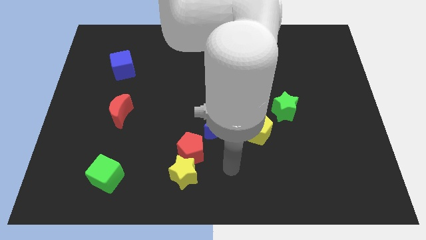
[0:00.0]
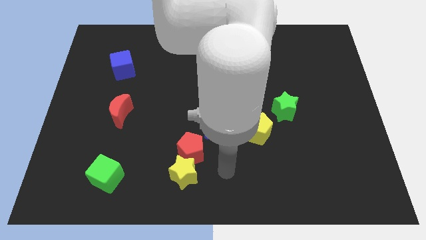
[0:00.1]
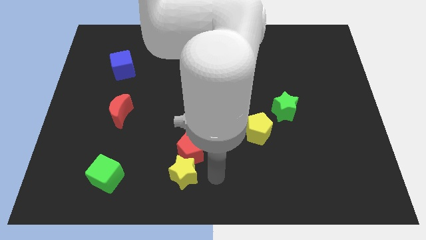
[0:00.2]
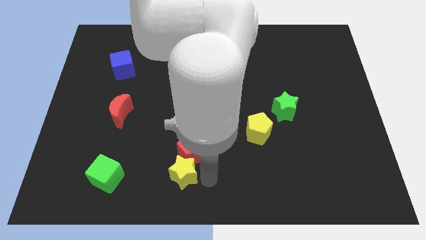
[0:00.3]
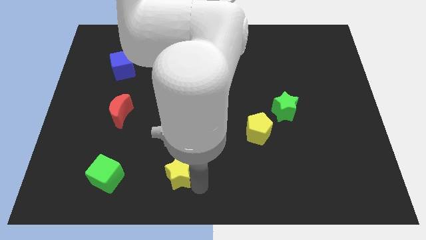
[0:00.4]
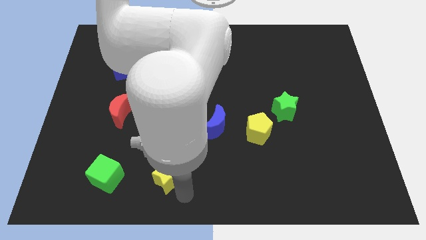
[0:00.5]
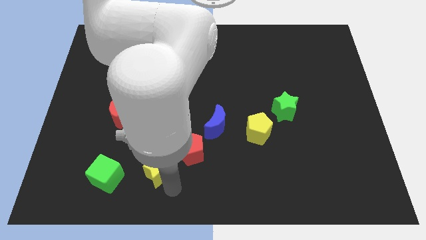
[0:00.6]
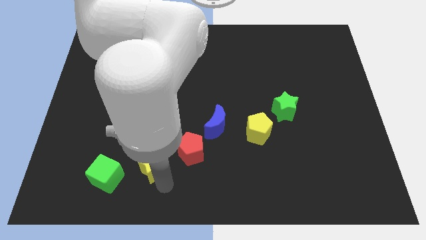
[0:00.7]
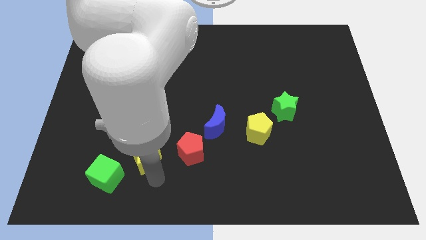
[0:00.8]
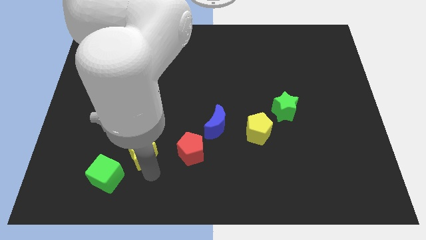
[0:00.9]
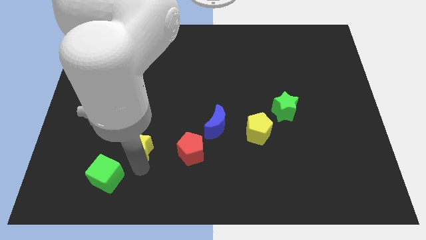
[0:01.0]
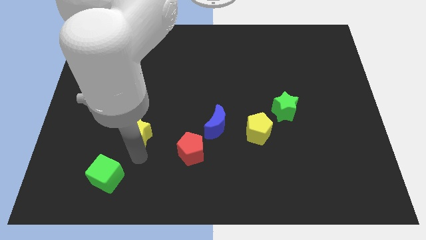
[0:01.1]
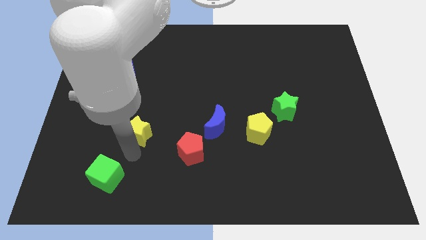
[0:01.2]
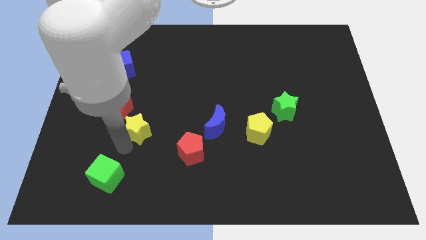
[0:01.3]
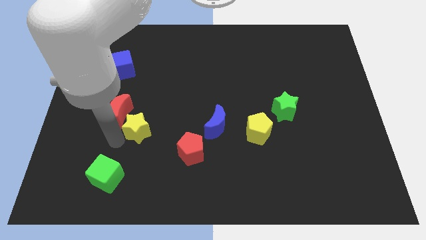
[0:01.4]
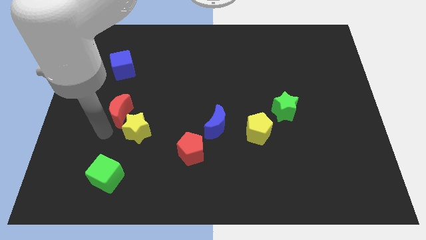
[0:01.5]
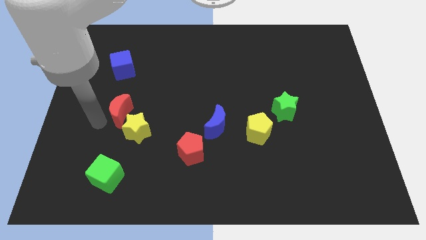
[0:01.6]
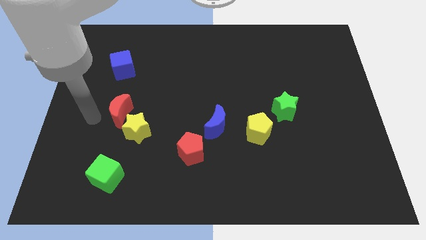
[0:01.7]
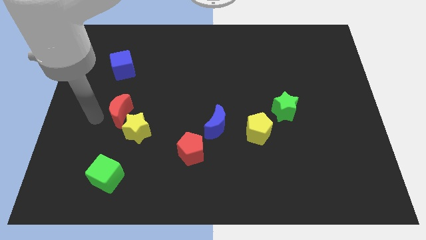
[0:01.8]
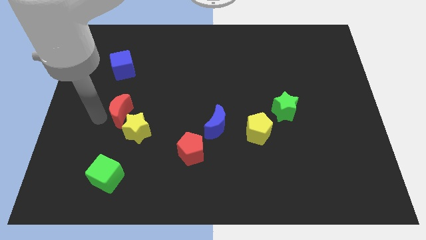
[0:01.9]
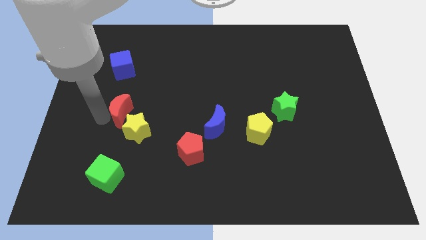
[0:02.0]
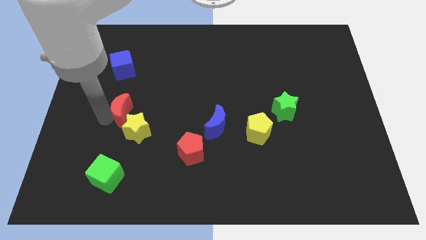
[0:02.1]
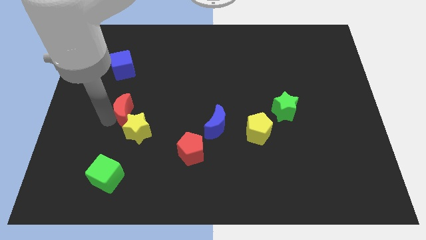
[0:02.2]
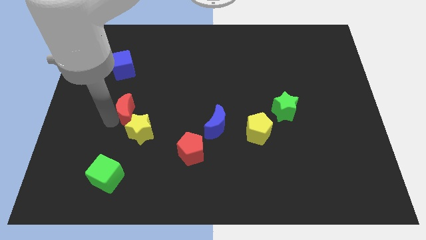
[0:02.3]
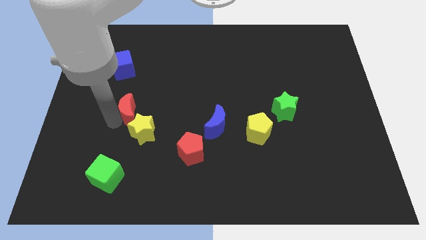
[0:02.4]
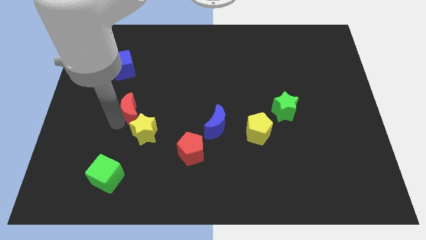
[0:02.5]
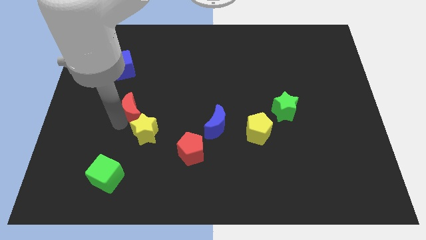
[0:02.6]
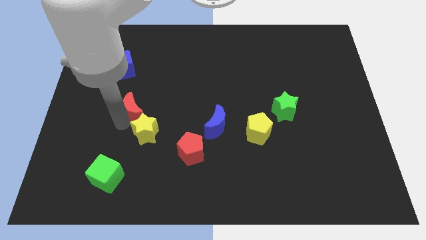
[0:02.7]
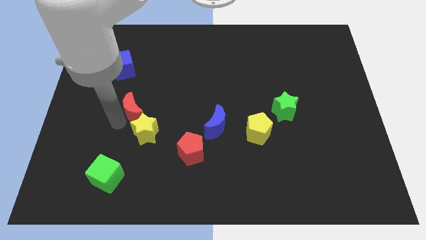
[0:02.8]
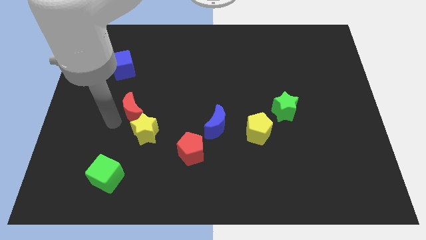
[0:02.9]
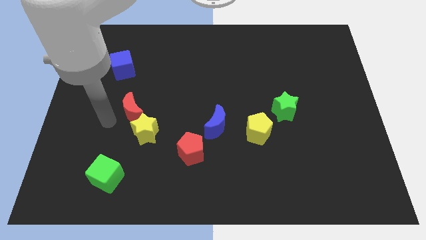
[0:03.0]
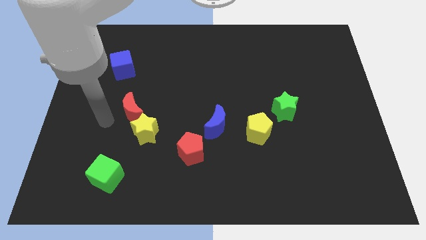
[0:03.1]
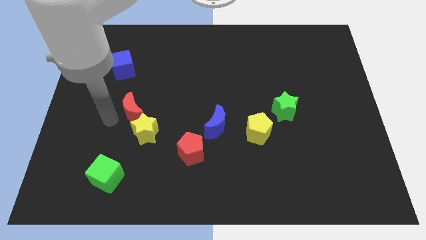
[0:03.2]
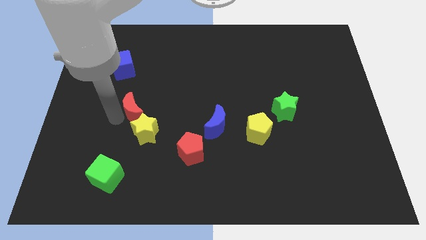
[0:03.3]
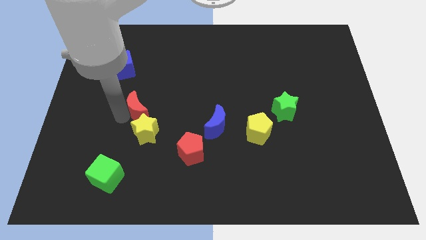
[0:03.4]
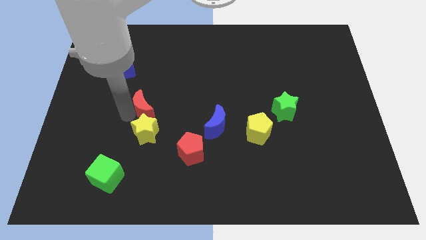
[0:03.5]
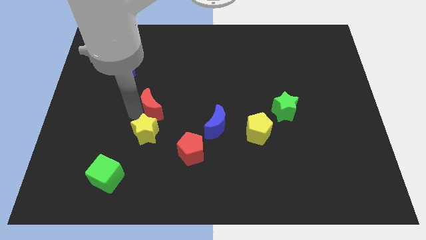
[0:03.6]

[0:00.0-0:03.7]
push the red moon a little right

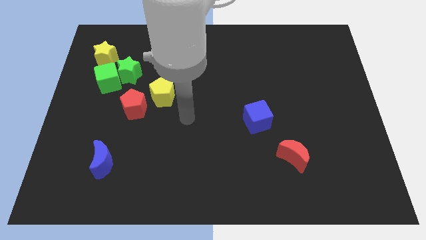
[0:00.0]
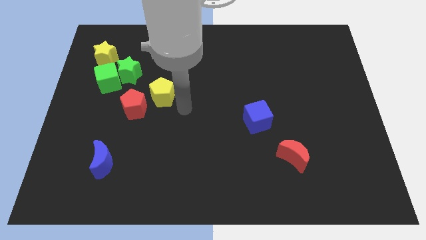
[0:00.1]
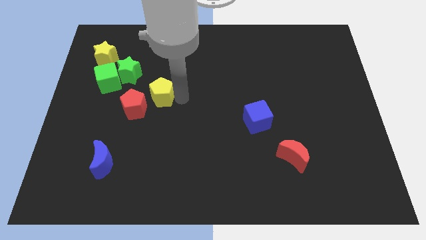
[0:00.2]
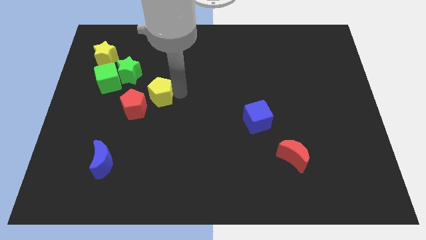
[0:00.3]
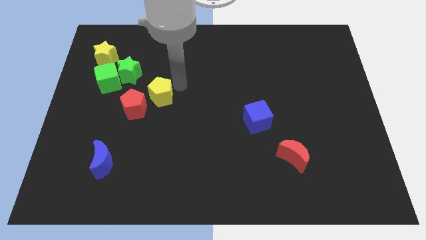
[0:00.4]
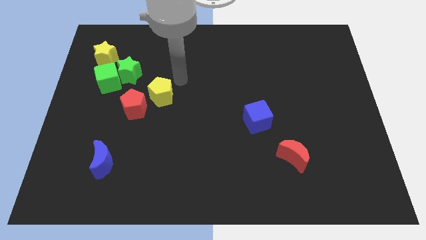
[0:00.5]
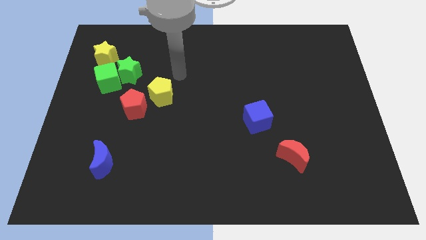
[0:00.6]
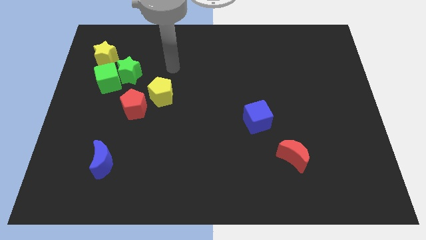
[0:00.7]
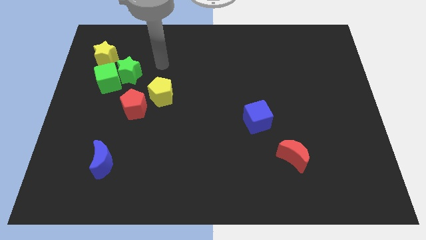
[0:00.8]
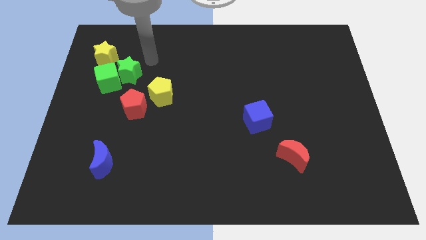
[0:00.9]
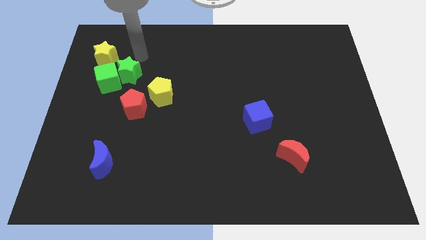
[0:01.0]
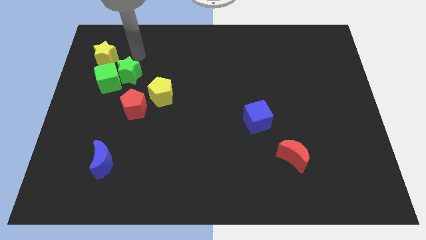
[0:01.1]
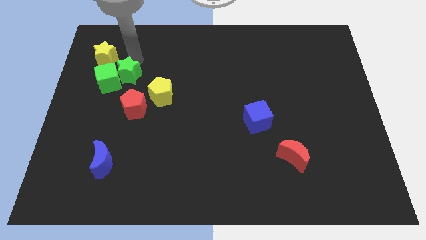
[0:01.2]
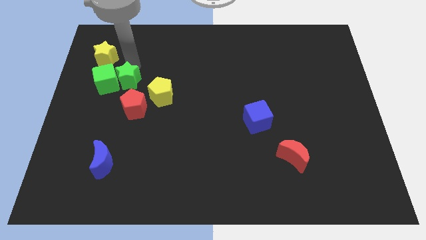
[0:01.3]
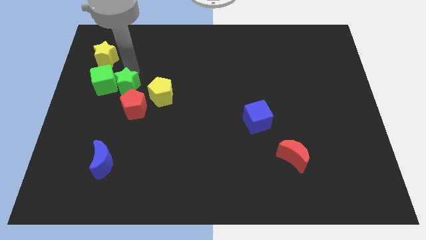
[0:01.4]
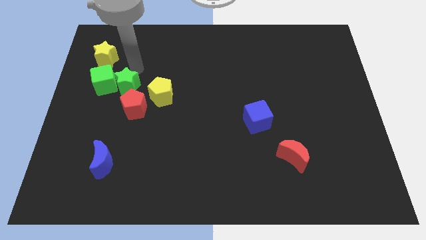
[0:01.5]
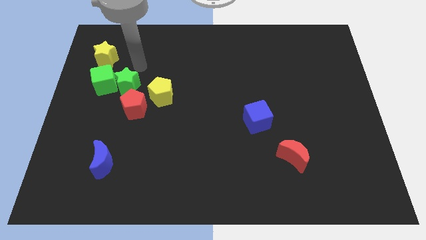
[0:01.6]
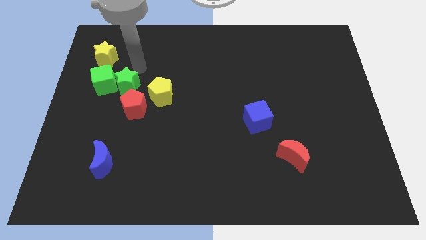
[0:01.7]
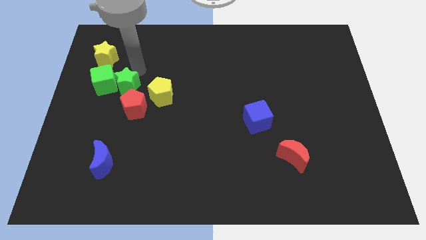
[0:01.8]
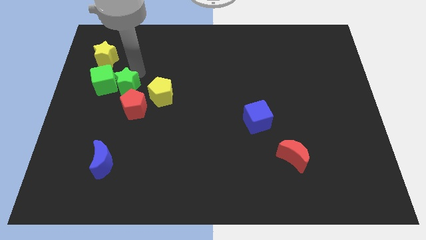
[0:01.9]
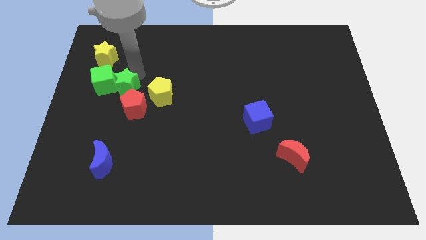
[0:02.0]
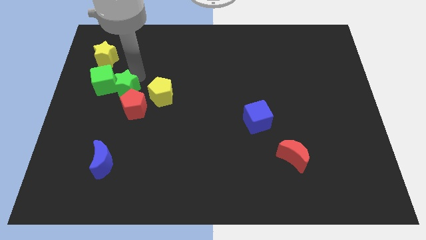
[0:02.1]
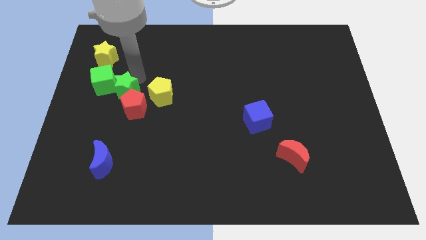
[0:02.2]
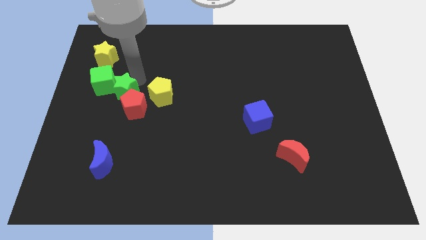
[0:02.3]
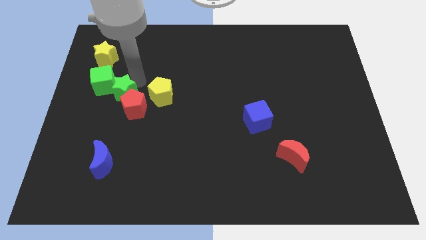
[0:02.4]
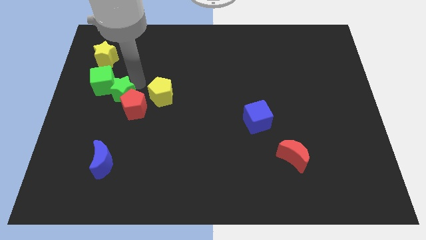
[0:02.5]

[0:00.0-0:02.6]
push the green star a bit down

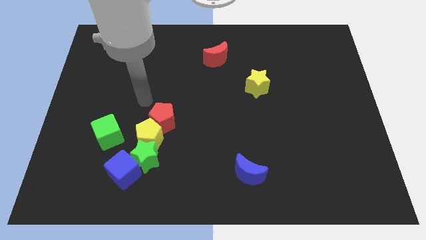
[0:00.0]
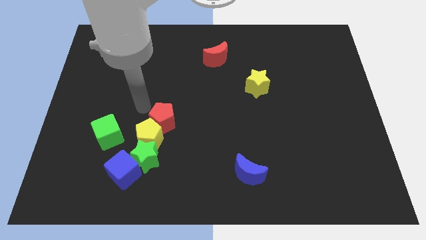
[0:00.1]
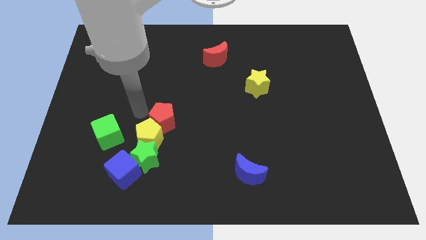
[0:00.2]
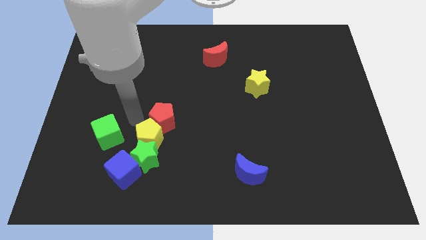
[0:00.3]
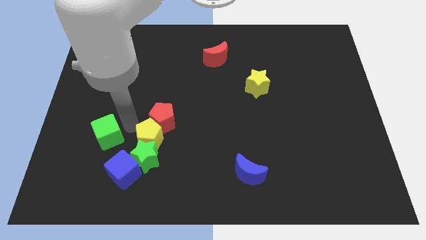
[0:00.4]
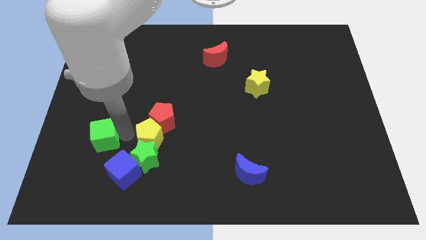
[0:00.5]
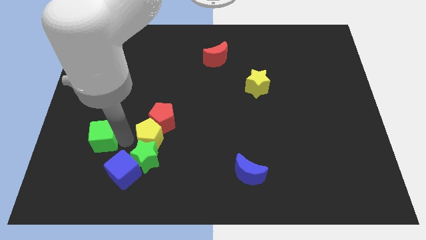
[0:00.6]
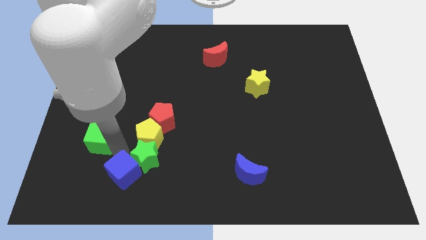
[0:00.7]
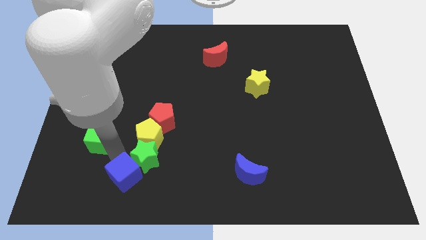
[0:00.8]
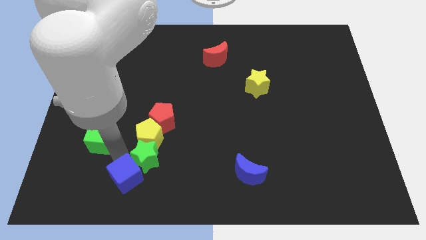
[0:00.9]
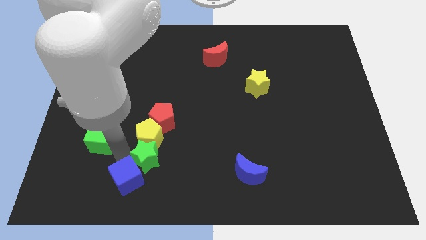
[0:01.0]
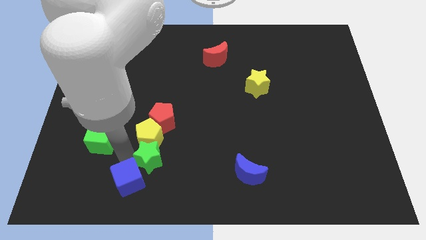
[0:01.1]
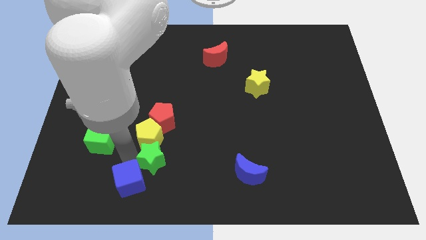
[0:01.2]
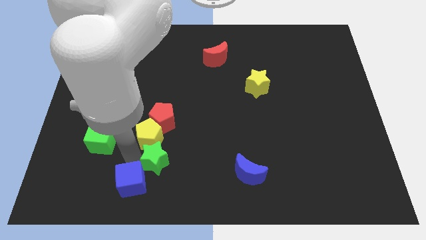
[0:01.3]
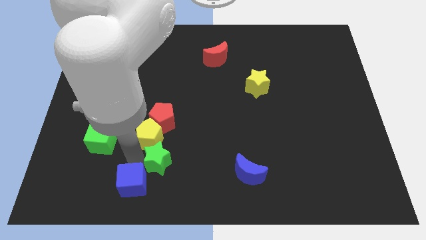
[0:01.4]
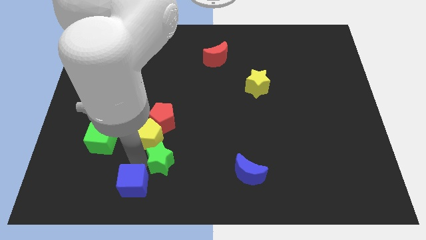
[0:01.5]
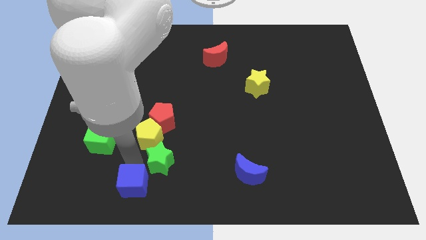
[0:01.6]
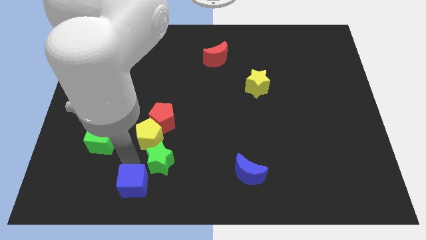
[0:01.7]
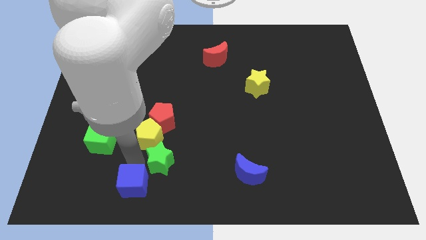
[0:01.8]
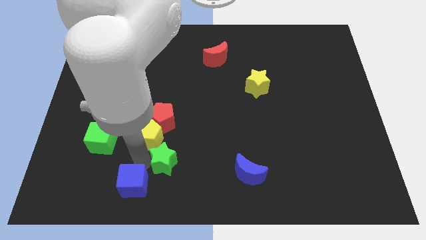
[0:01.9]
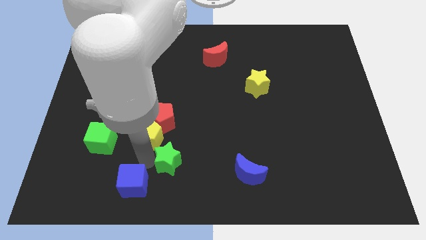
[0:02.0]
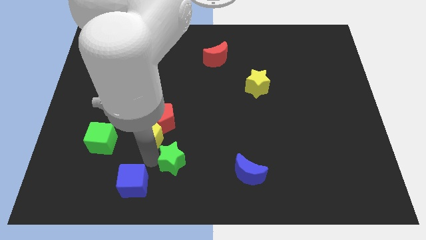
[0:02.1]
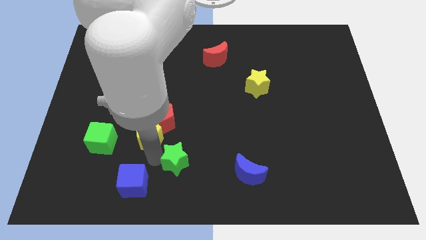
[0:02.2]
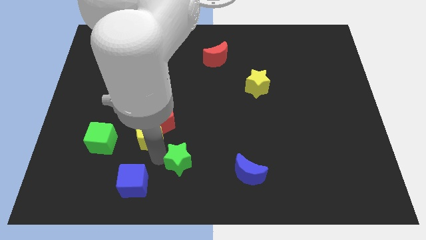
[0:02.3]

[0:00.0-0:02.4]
move the green star right a little
